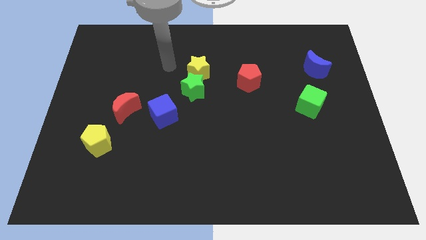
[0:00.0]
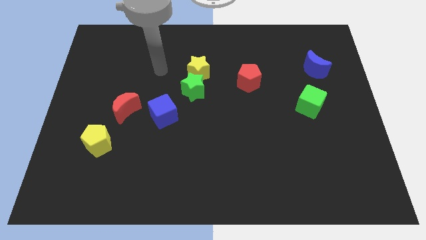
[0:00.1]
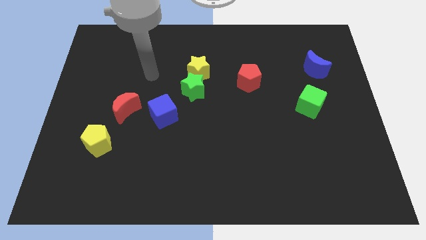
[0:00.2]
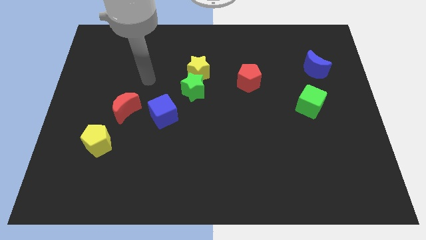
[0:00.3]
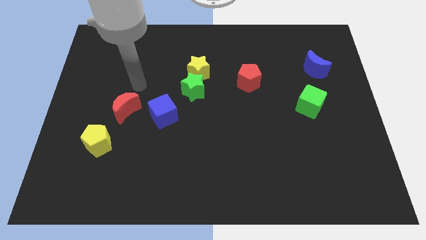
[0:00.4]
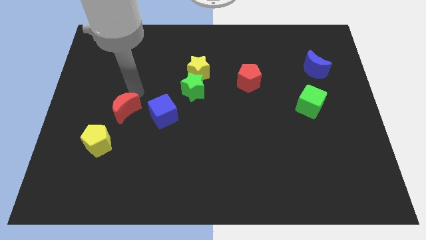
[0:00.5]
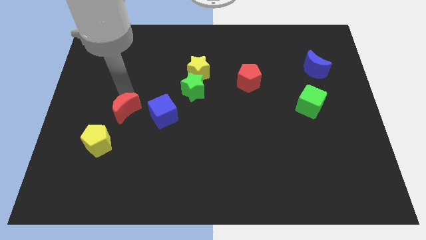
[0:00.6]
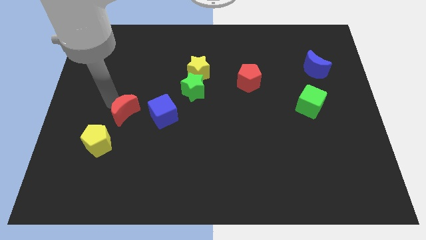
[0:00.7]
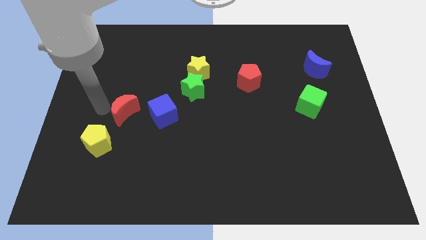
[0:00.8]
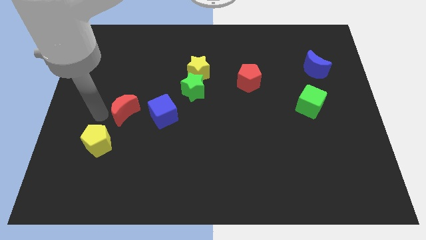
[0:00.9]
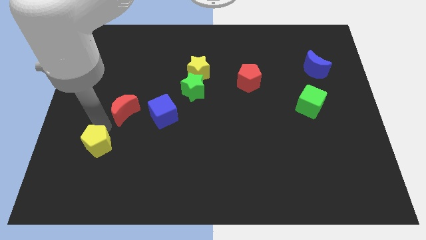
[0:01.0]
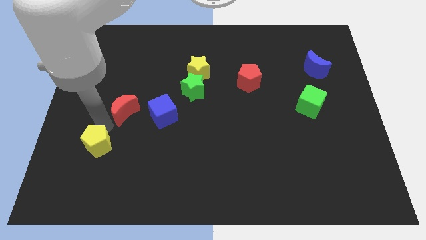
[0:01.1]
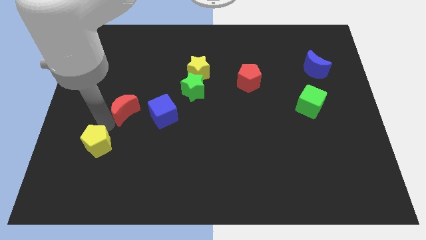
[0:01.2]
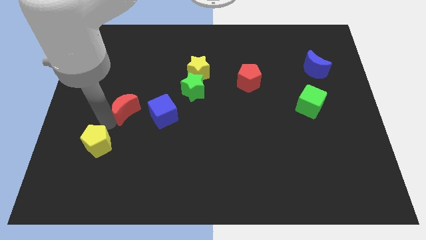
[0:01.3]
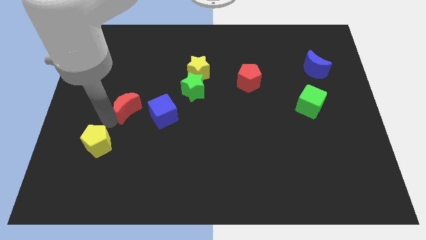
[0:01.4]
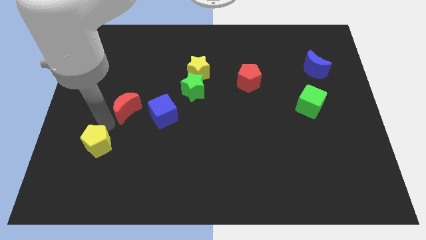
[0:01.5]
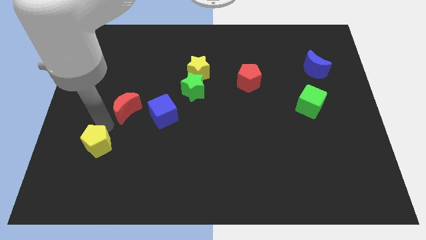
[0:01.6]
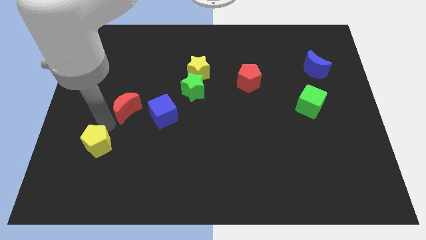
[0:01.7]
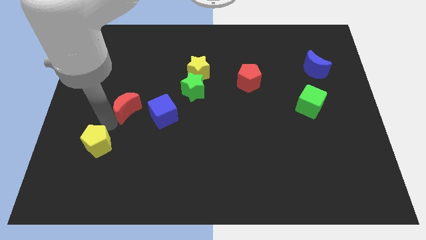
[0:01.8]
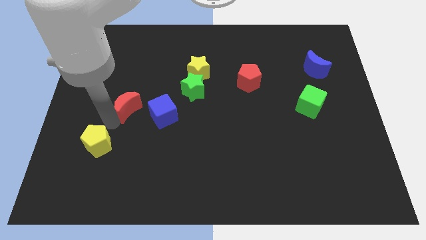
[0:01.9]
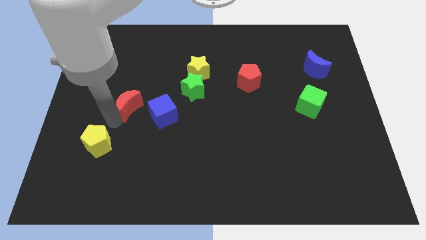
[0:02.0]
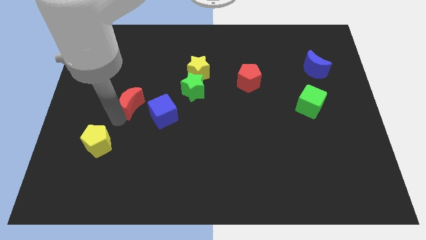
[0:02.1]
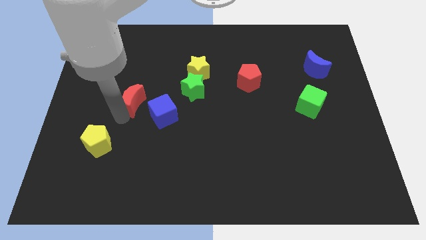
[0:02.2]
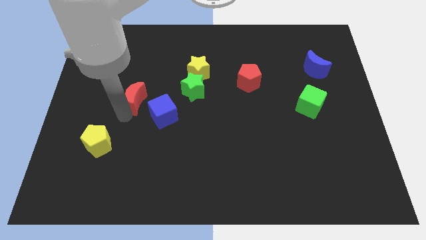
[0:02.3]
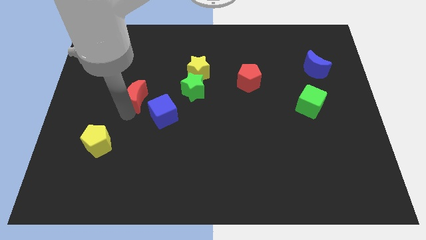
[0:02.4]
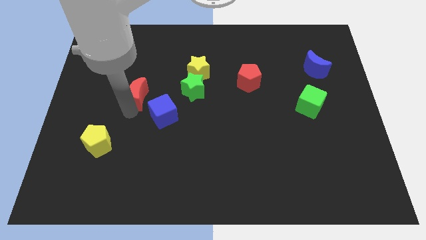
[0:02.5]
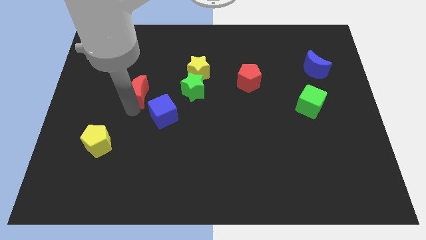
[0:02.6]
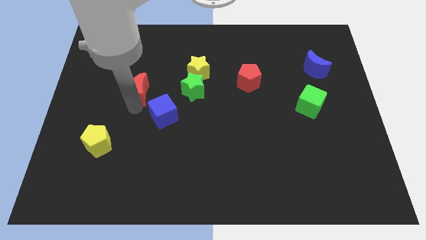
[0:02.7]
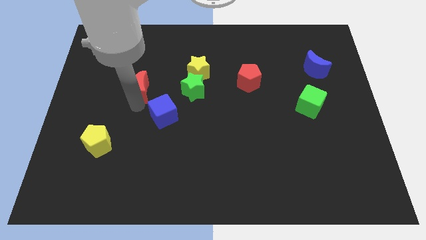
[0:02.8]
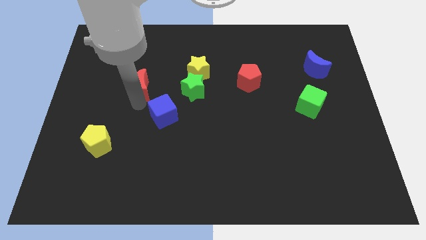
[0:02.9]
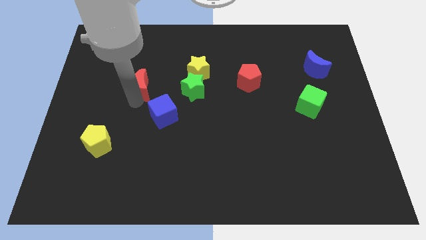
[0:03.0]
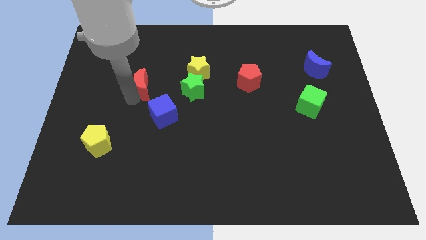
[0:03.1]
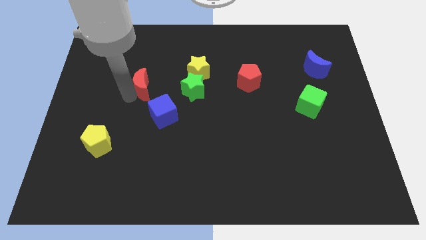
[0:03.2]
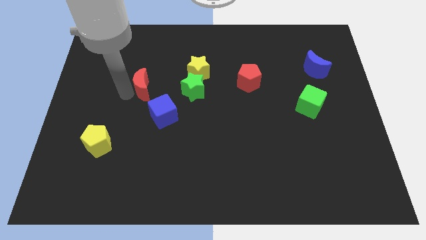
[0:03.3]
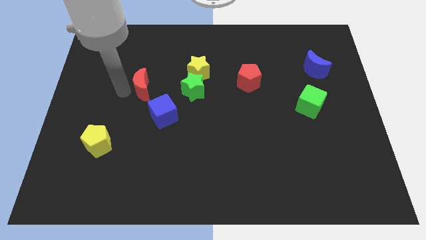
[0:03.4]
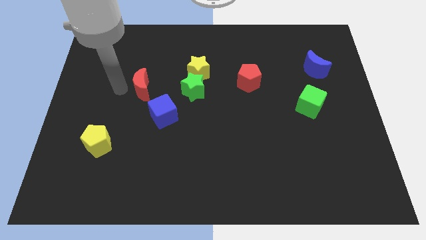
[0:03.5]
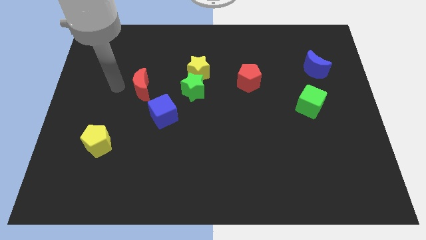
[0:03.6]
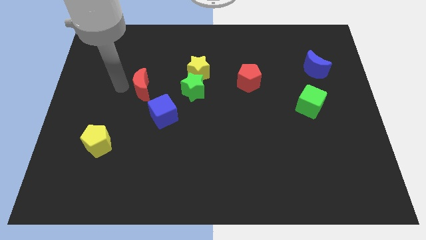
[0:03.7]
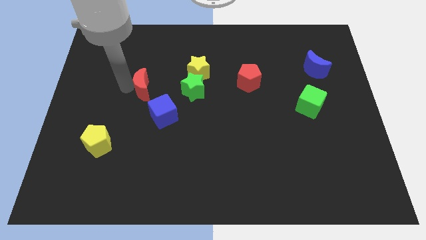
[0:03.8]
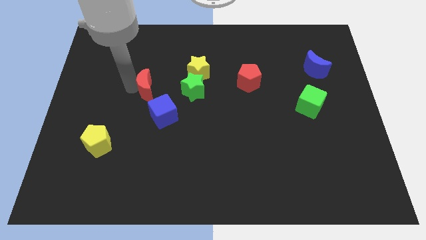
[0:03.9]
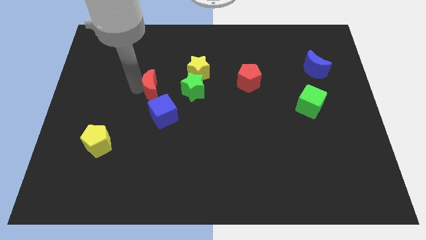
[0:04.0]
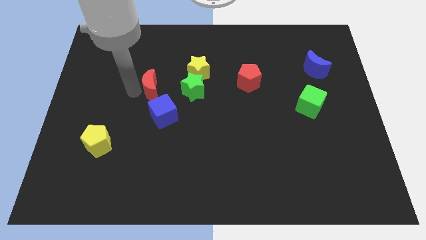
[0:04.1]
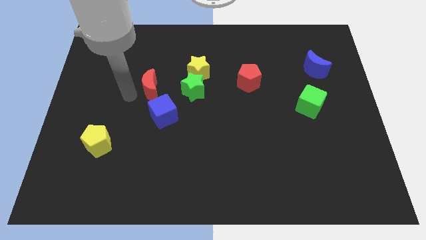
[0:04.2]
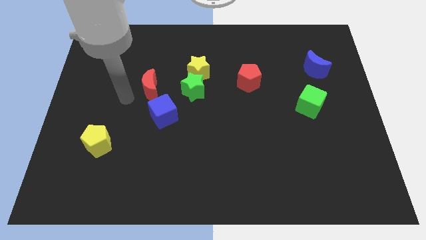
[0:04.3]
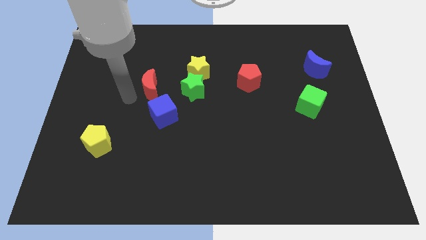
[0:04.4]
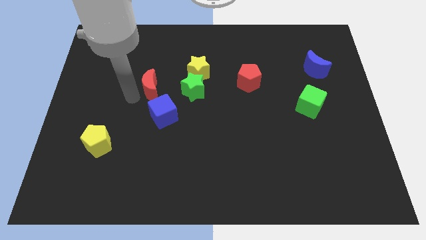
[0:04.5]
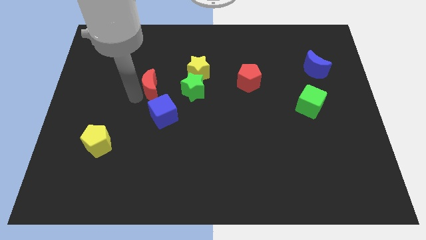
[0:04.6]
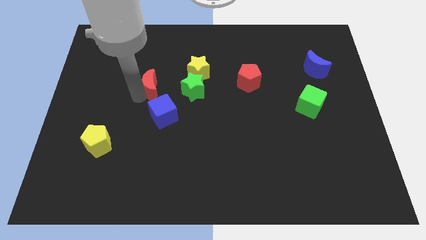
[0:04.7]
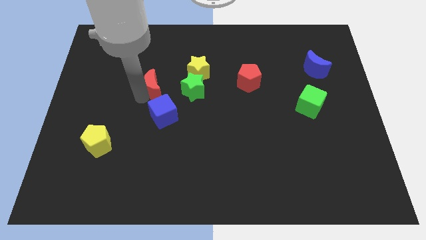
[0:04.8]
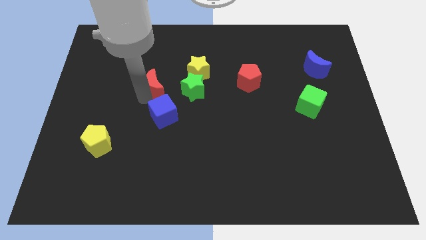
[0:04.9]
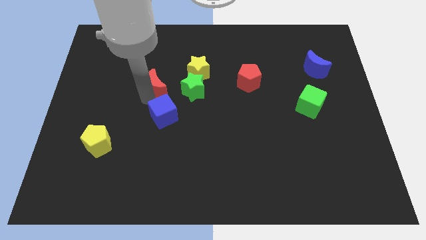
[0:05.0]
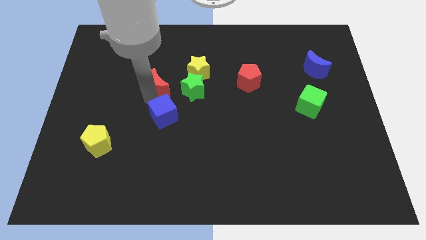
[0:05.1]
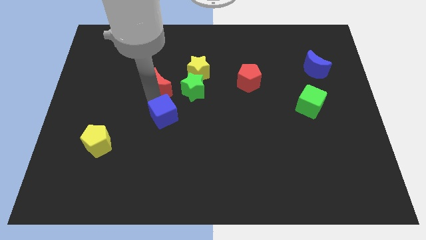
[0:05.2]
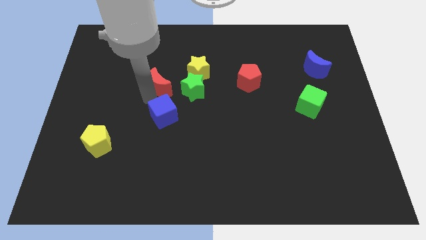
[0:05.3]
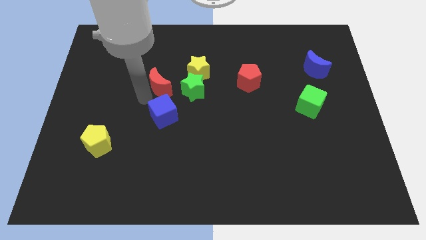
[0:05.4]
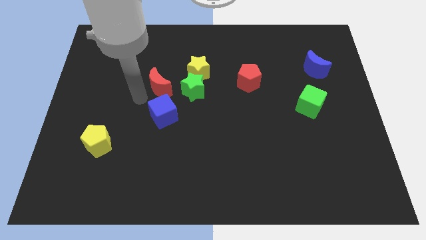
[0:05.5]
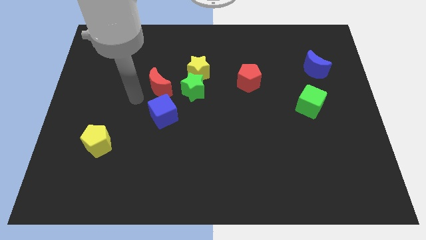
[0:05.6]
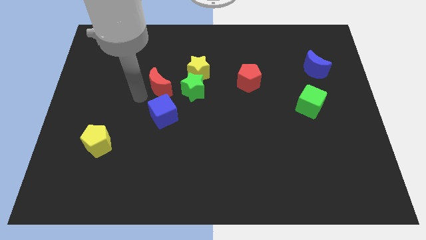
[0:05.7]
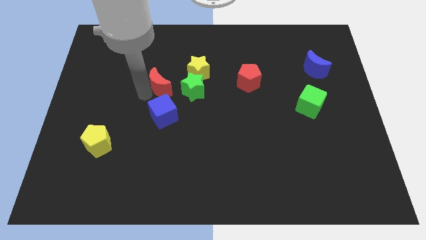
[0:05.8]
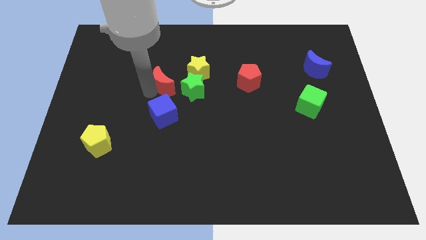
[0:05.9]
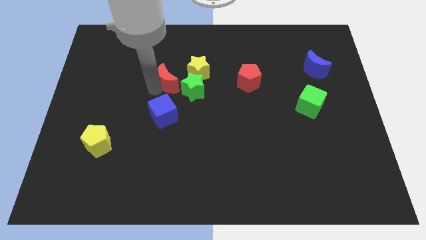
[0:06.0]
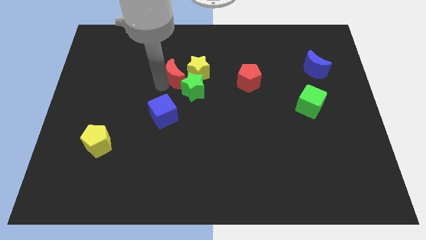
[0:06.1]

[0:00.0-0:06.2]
put the red moon close to the yellow star

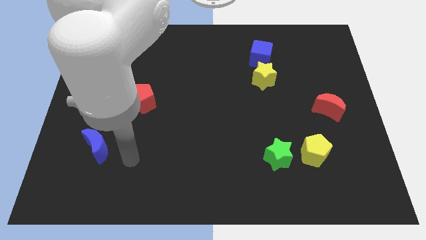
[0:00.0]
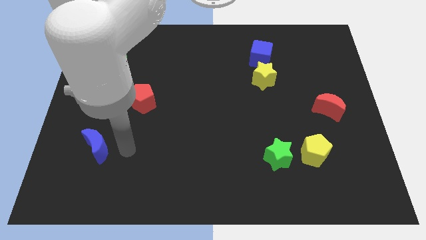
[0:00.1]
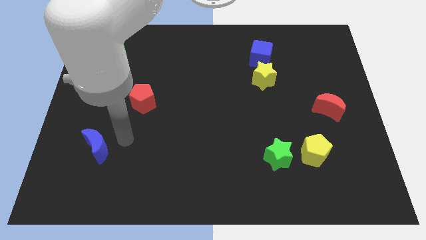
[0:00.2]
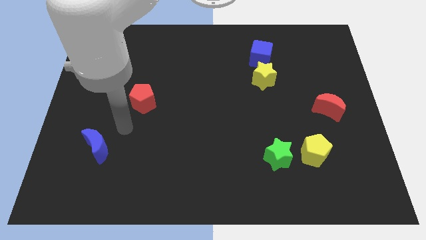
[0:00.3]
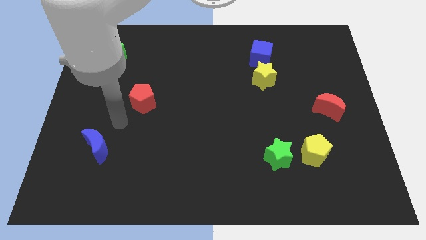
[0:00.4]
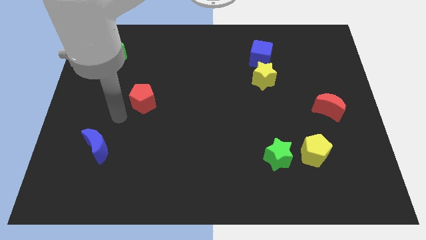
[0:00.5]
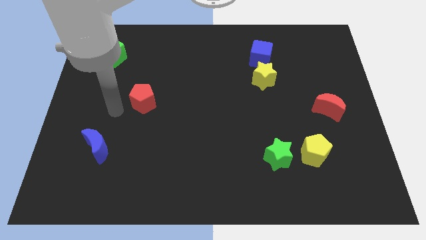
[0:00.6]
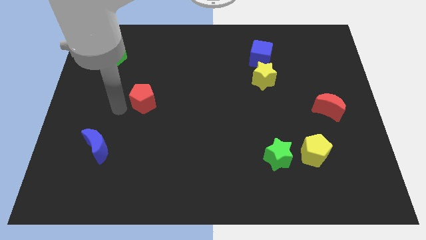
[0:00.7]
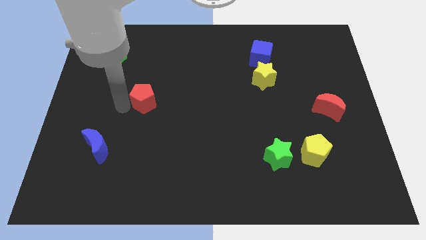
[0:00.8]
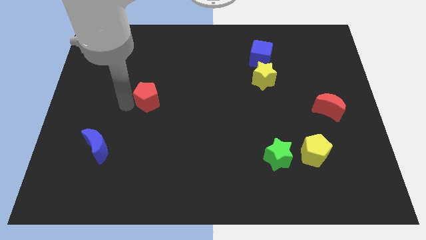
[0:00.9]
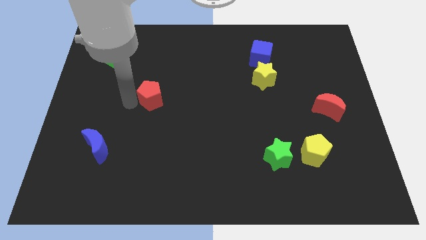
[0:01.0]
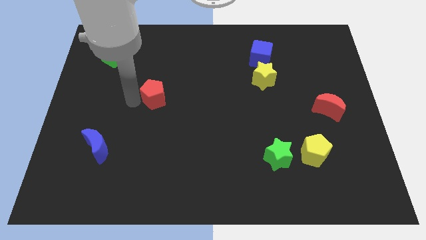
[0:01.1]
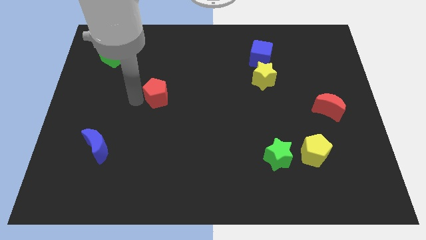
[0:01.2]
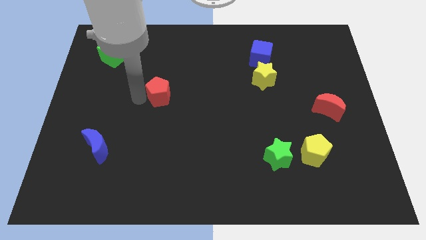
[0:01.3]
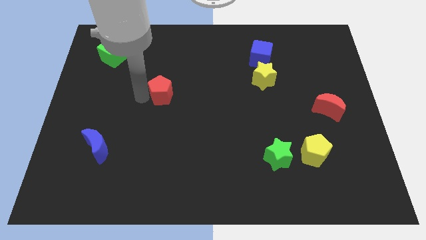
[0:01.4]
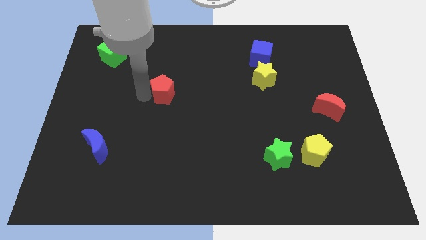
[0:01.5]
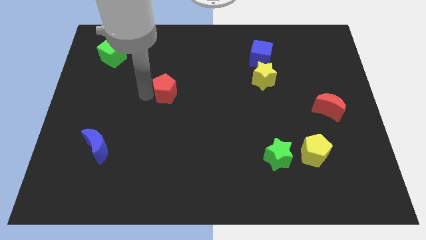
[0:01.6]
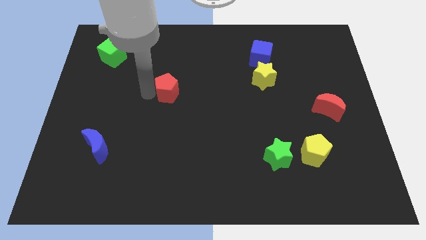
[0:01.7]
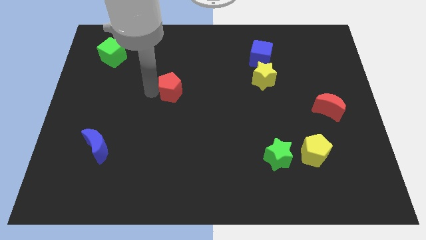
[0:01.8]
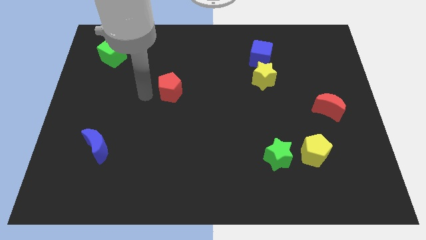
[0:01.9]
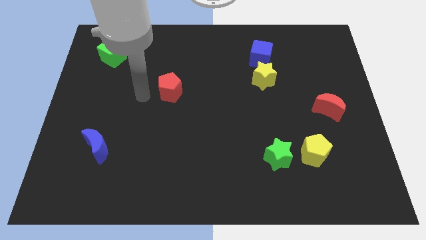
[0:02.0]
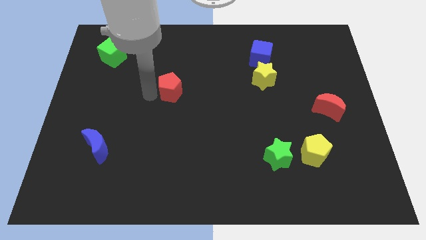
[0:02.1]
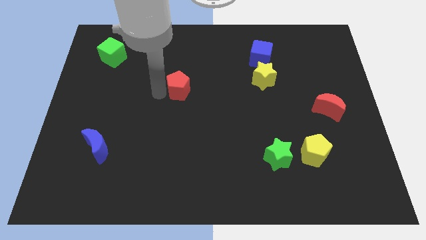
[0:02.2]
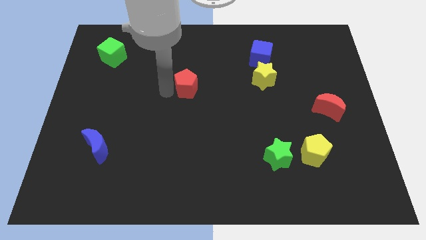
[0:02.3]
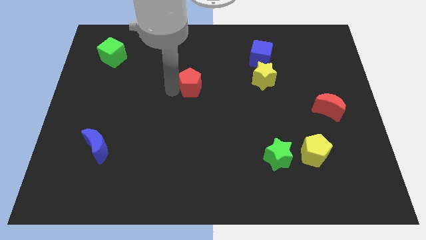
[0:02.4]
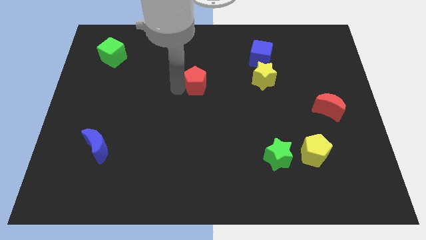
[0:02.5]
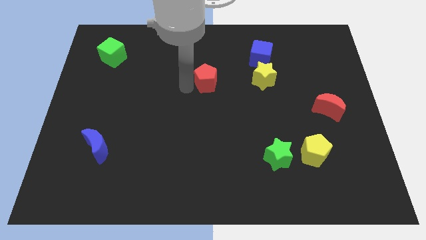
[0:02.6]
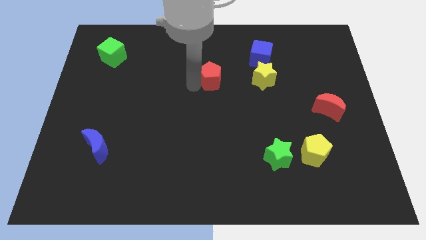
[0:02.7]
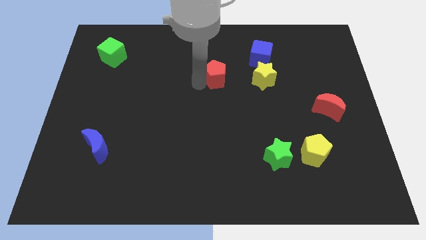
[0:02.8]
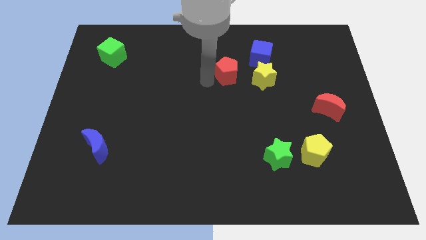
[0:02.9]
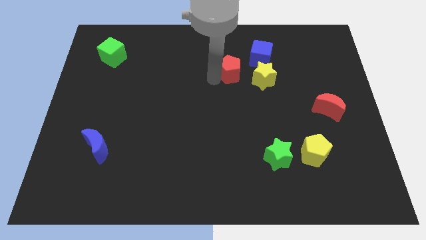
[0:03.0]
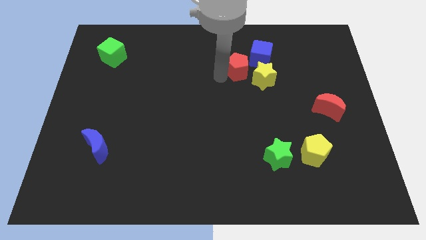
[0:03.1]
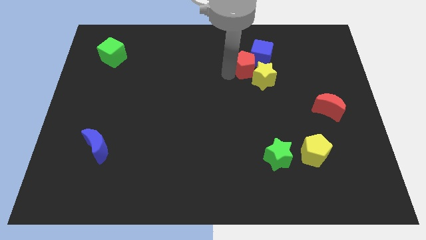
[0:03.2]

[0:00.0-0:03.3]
move the red pentagon to the blue cube
